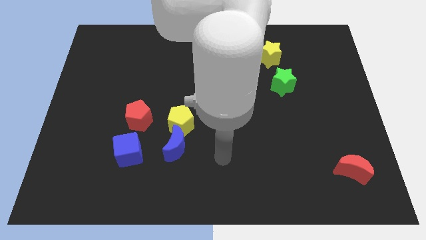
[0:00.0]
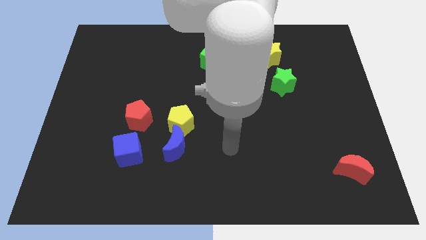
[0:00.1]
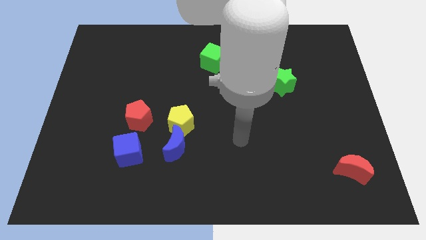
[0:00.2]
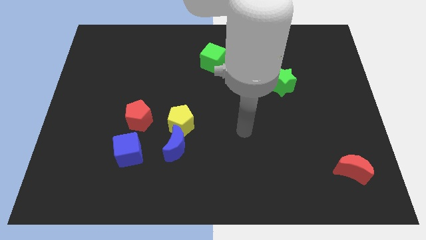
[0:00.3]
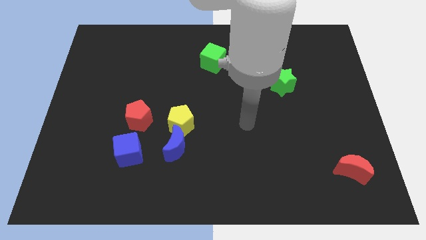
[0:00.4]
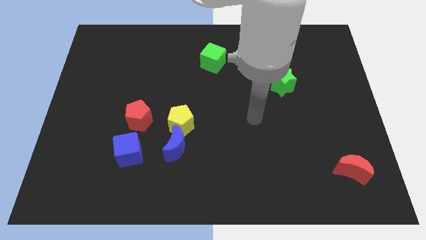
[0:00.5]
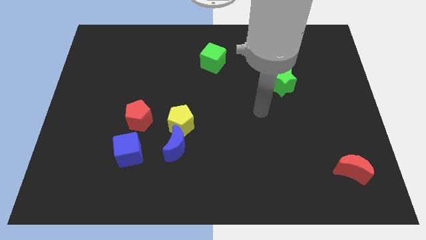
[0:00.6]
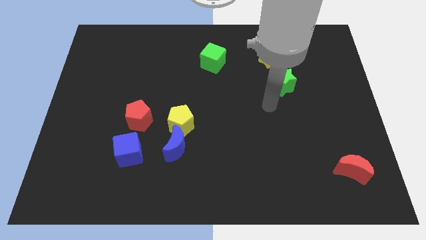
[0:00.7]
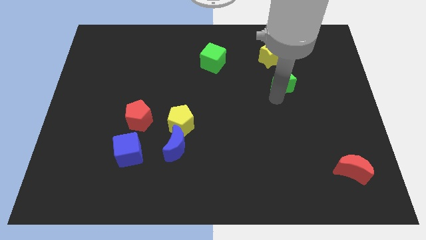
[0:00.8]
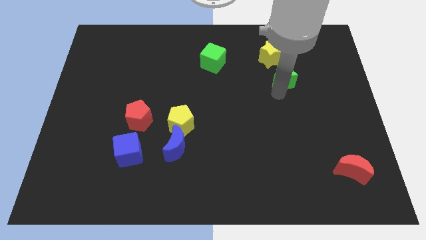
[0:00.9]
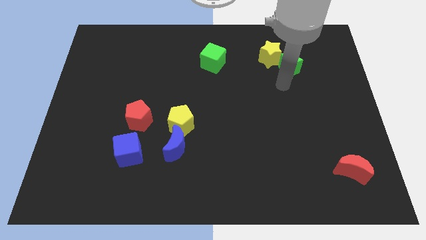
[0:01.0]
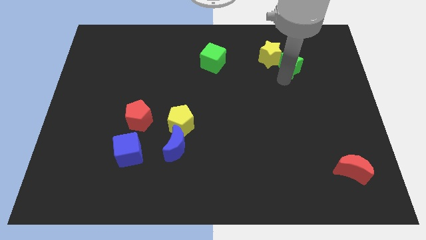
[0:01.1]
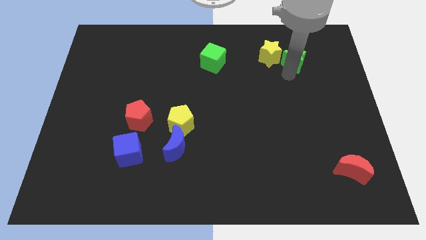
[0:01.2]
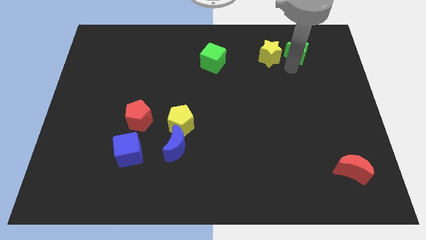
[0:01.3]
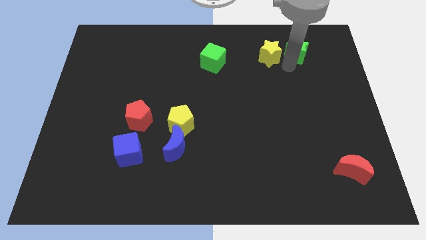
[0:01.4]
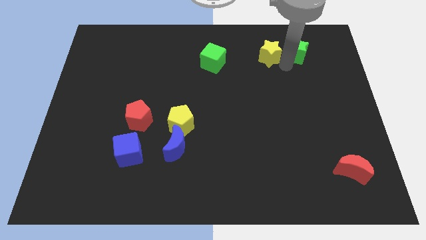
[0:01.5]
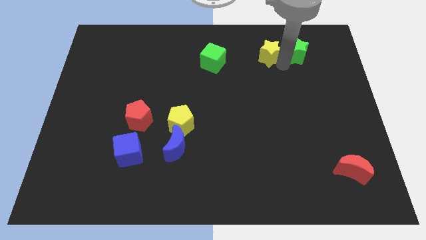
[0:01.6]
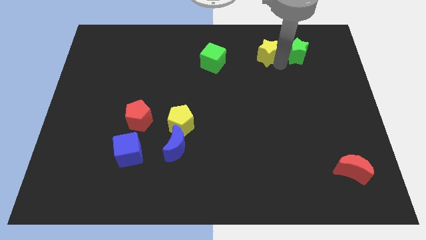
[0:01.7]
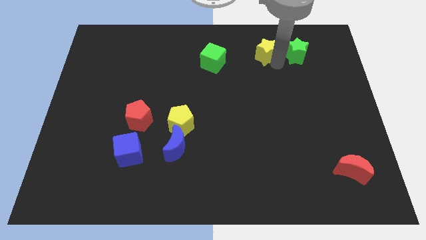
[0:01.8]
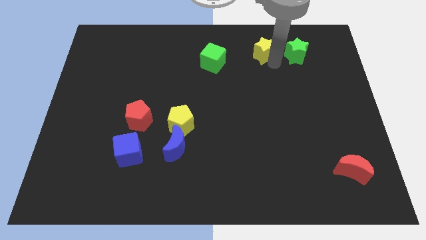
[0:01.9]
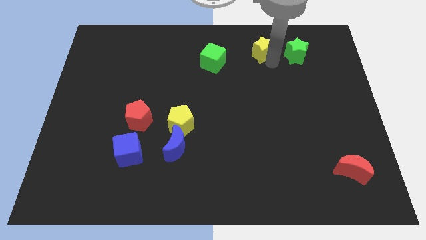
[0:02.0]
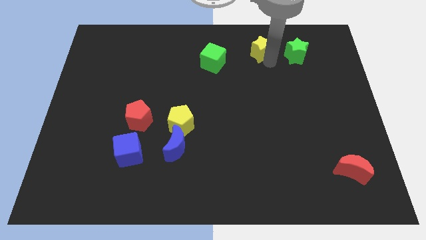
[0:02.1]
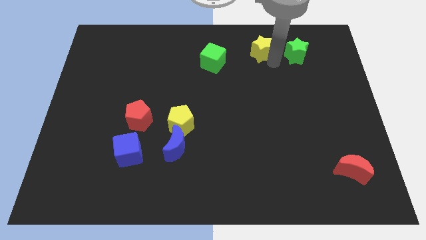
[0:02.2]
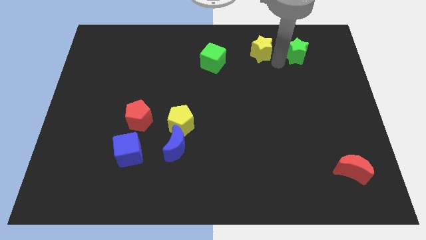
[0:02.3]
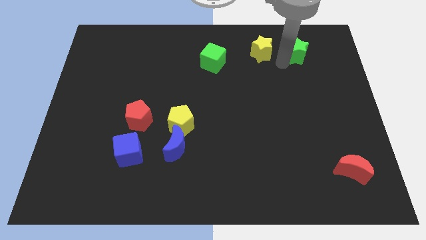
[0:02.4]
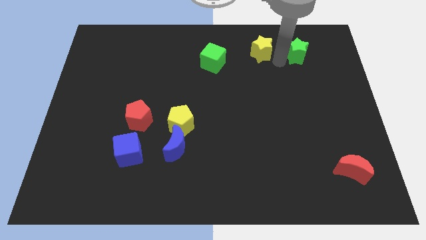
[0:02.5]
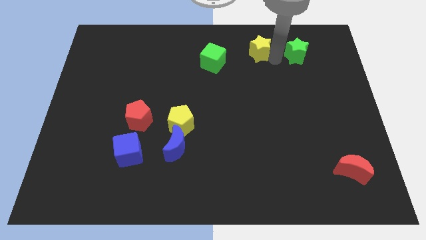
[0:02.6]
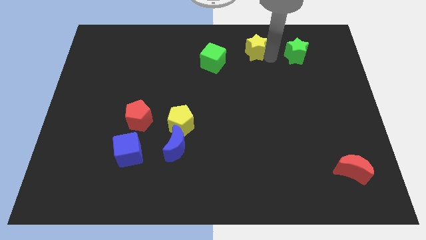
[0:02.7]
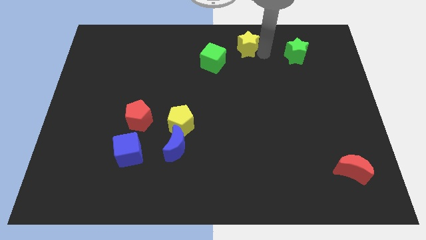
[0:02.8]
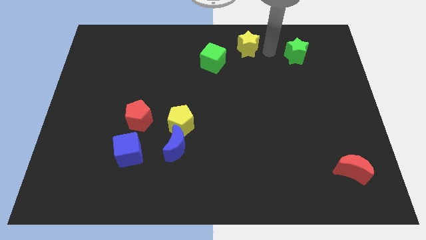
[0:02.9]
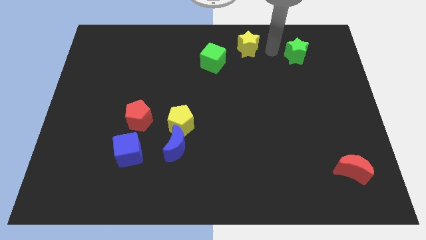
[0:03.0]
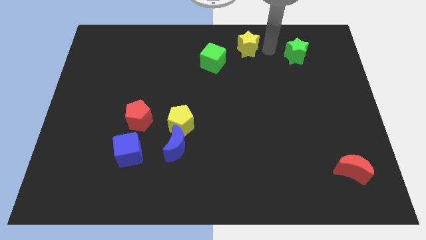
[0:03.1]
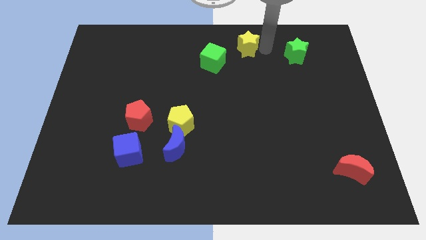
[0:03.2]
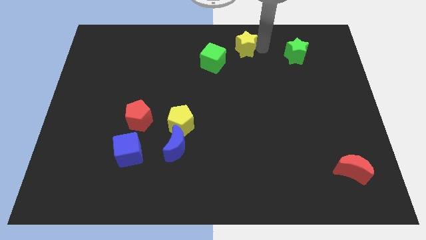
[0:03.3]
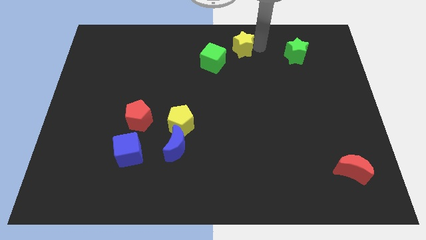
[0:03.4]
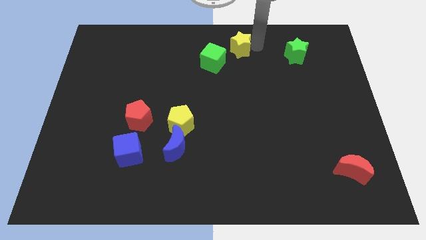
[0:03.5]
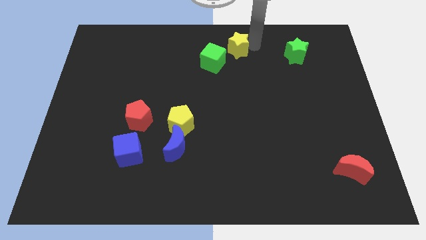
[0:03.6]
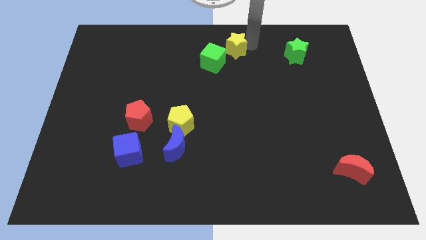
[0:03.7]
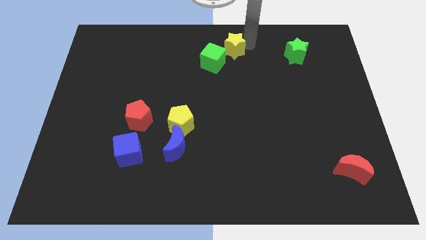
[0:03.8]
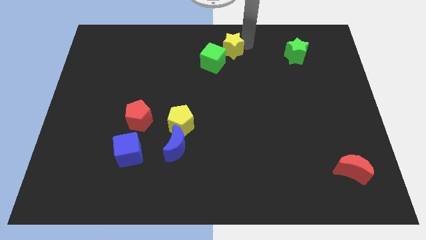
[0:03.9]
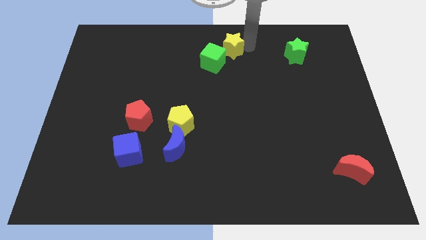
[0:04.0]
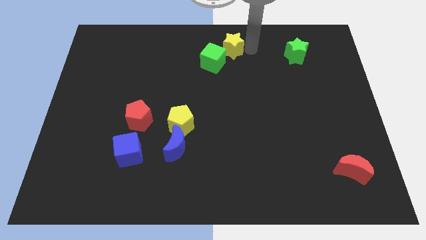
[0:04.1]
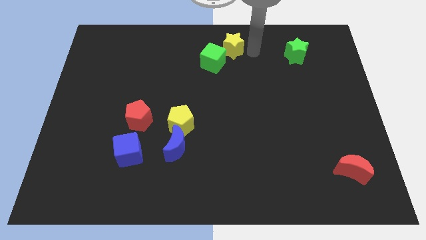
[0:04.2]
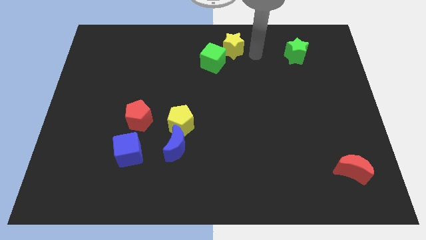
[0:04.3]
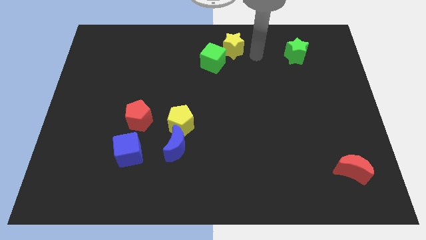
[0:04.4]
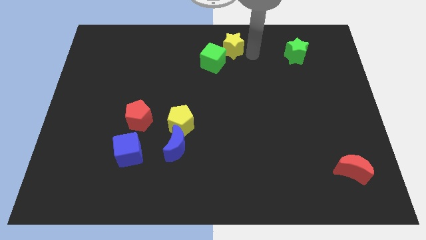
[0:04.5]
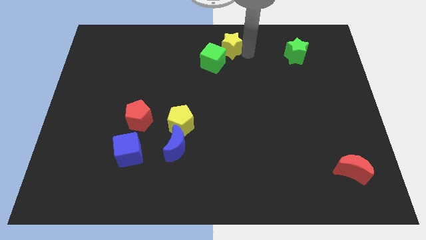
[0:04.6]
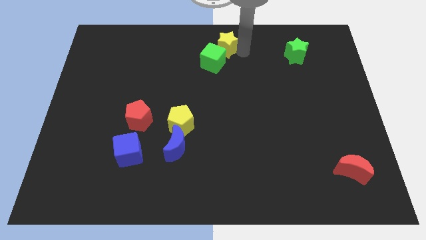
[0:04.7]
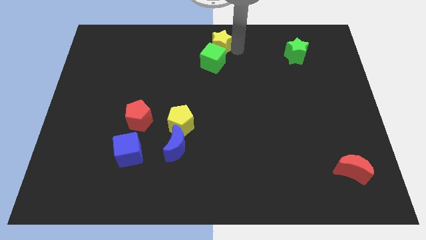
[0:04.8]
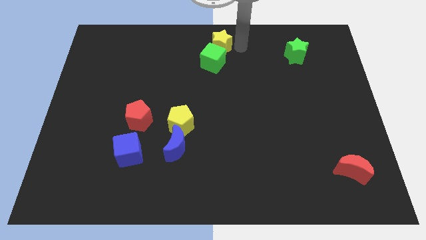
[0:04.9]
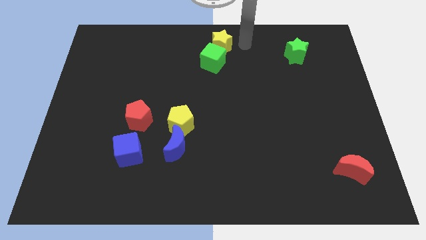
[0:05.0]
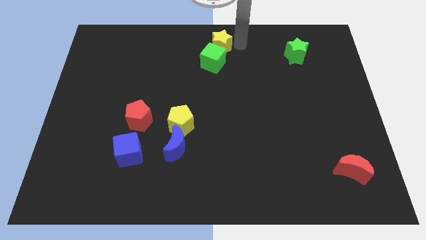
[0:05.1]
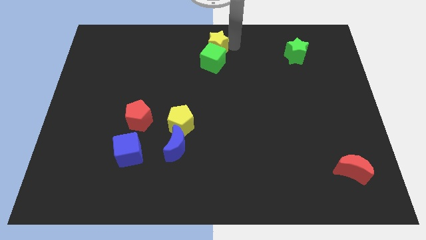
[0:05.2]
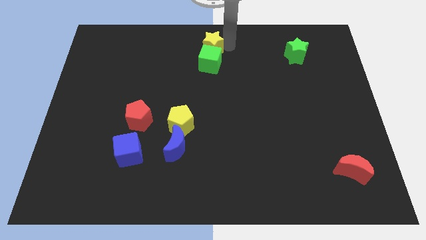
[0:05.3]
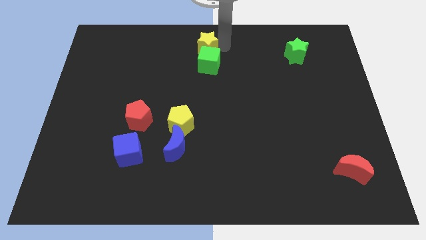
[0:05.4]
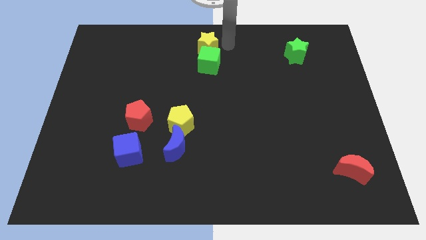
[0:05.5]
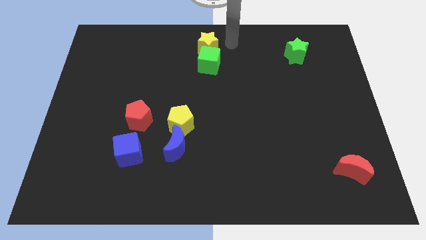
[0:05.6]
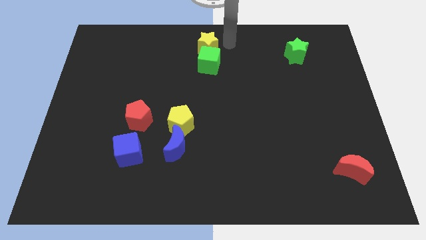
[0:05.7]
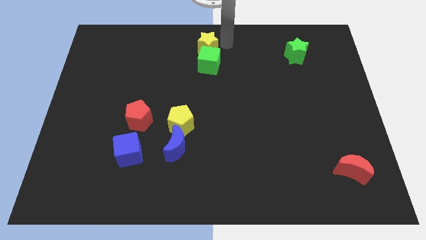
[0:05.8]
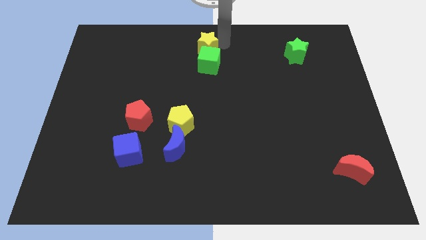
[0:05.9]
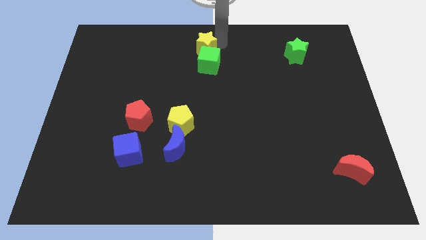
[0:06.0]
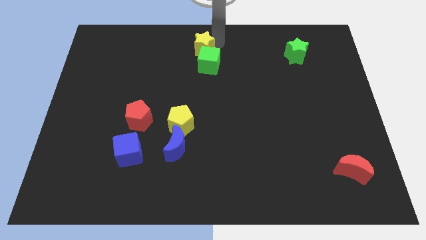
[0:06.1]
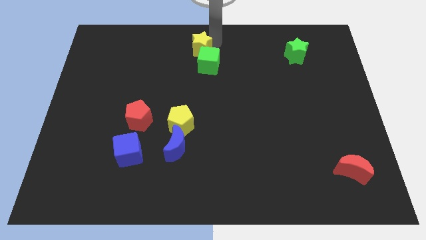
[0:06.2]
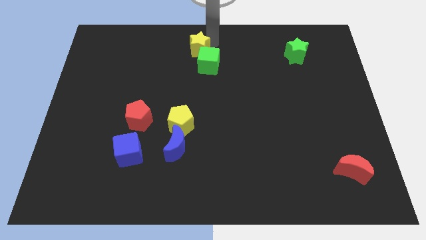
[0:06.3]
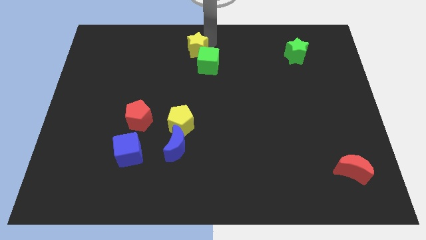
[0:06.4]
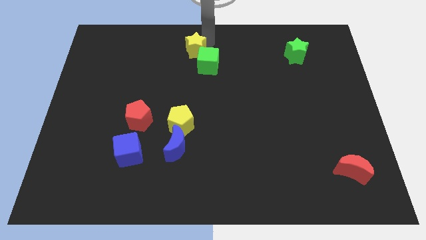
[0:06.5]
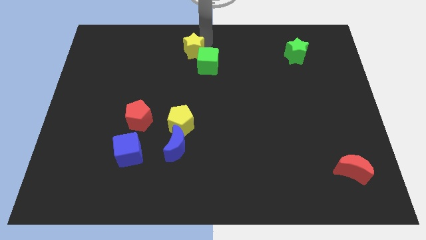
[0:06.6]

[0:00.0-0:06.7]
slide the yellow star left

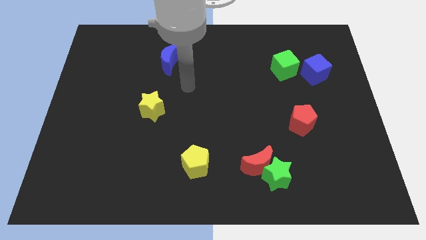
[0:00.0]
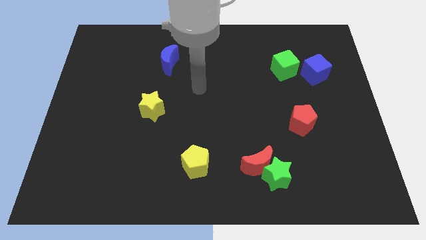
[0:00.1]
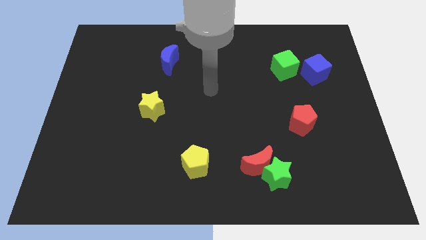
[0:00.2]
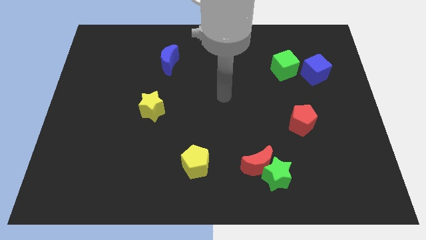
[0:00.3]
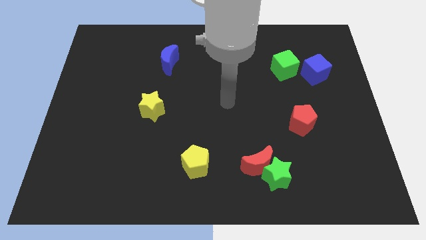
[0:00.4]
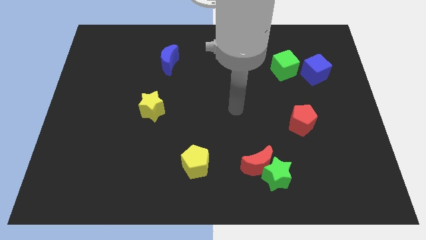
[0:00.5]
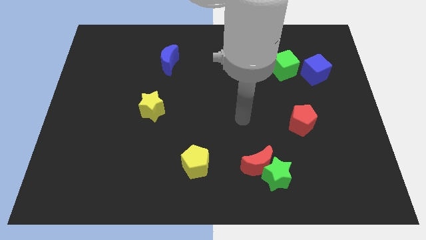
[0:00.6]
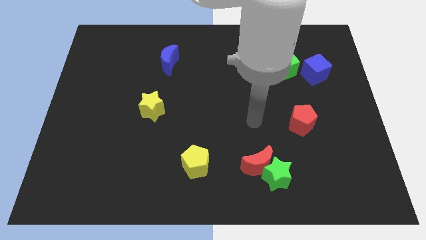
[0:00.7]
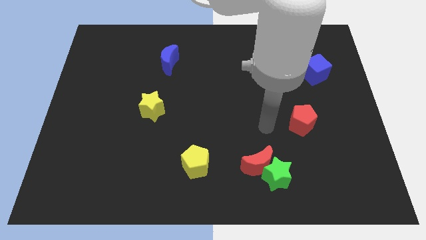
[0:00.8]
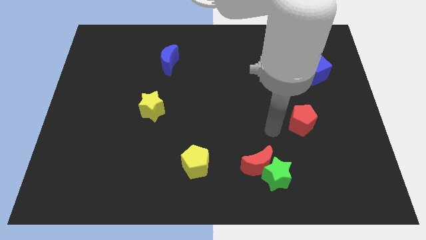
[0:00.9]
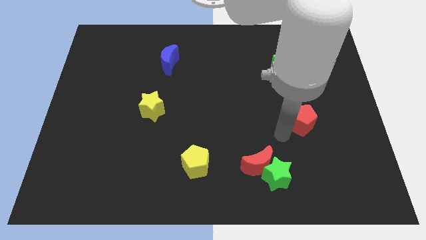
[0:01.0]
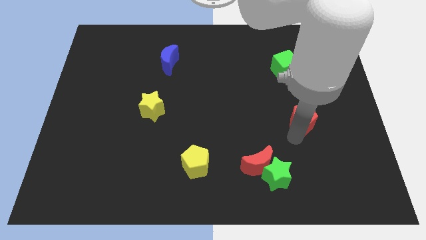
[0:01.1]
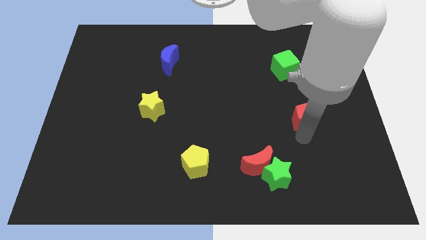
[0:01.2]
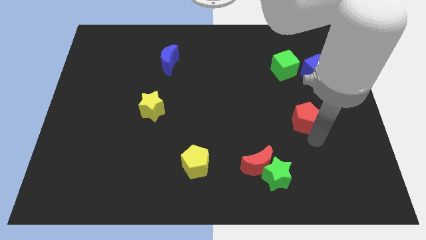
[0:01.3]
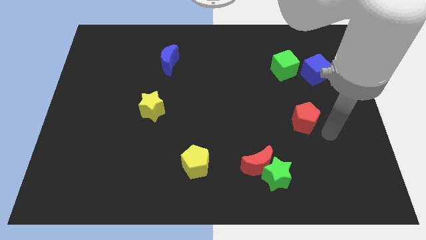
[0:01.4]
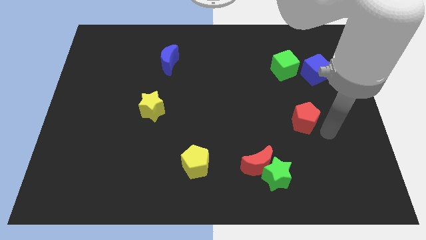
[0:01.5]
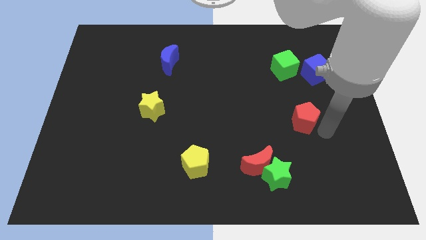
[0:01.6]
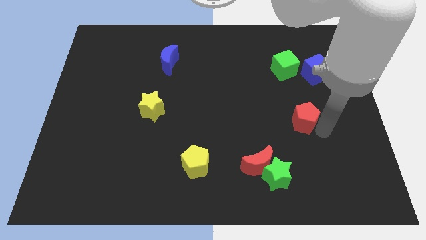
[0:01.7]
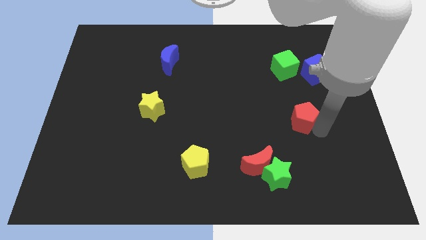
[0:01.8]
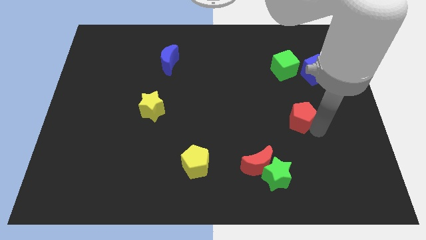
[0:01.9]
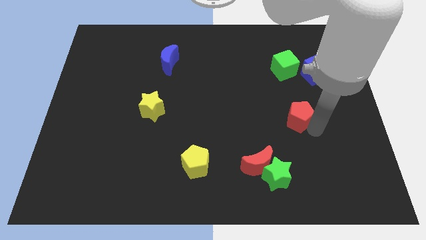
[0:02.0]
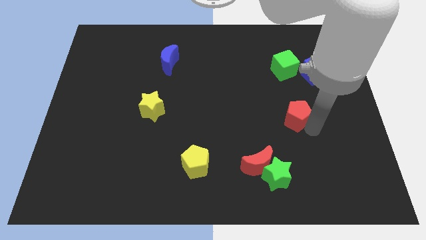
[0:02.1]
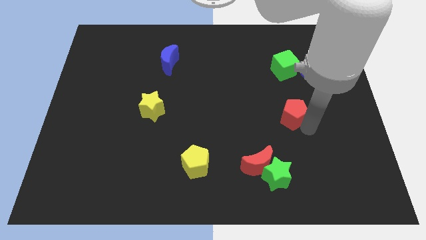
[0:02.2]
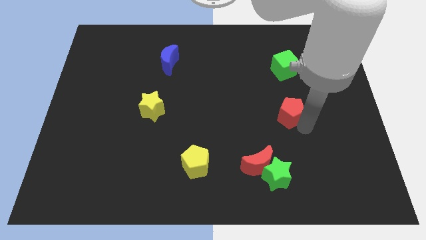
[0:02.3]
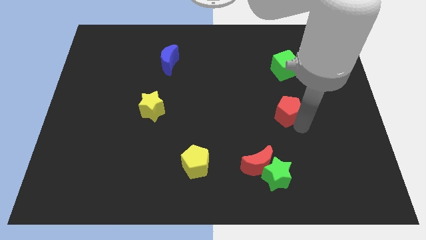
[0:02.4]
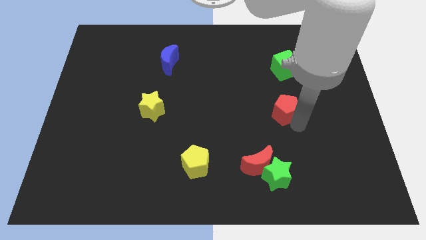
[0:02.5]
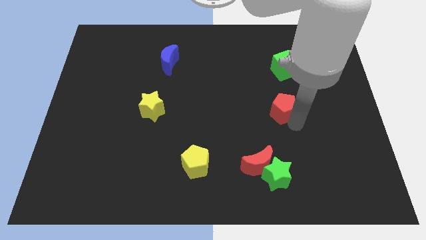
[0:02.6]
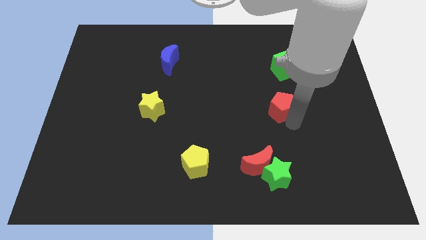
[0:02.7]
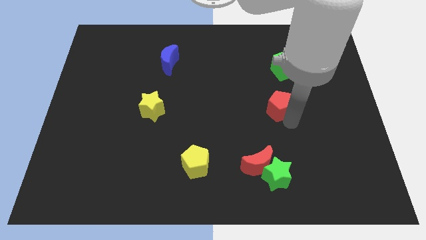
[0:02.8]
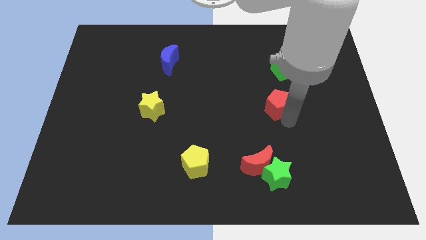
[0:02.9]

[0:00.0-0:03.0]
slide the red pentagon somewhat up and left
